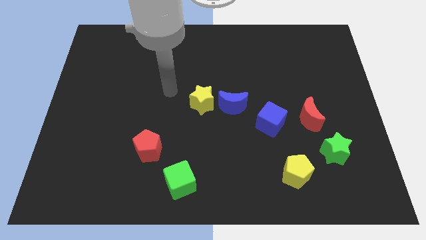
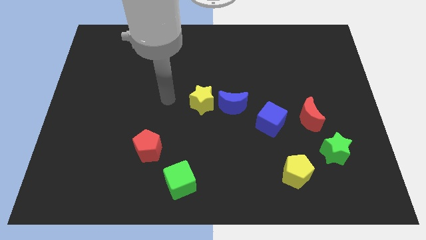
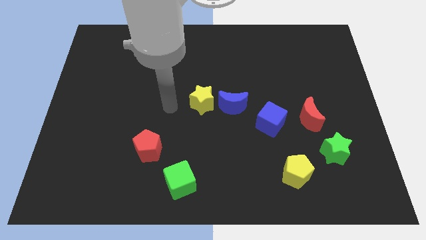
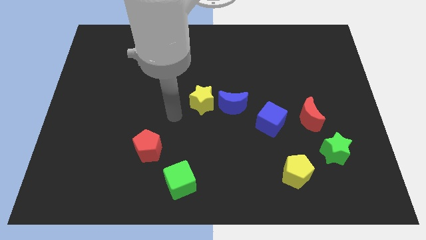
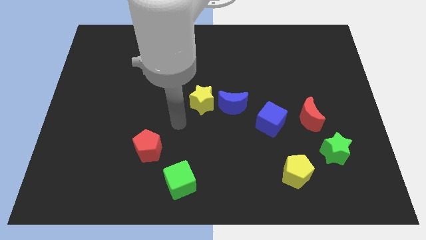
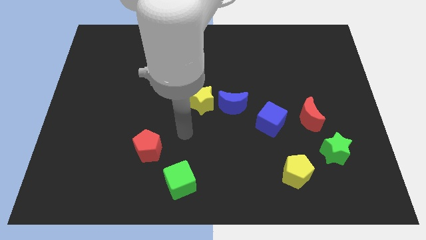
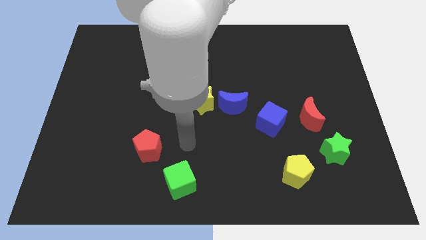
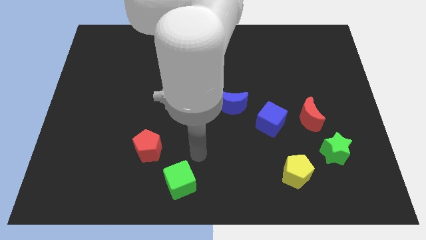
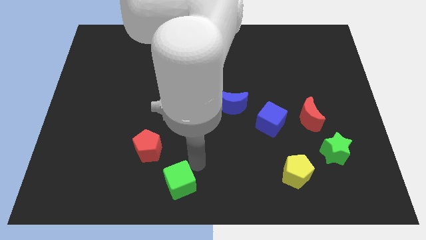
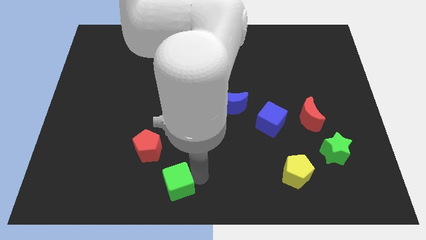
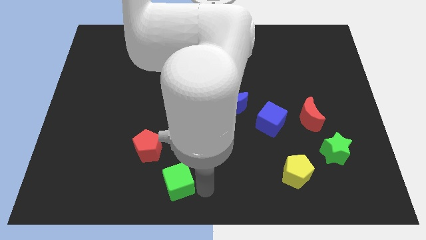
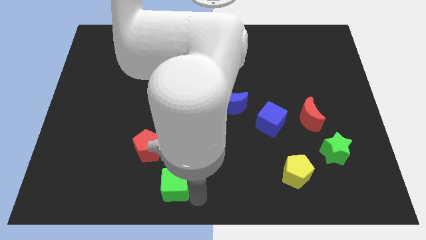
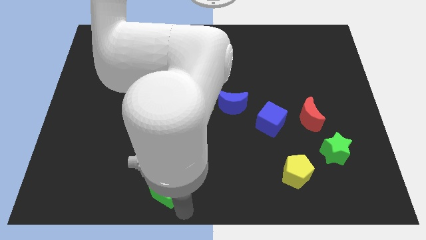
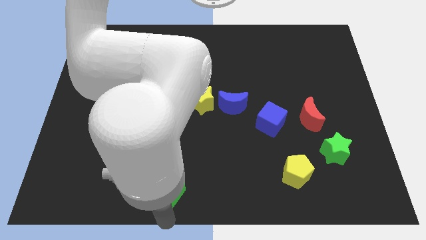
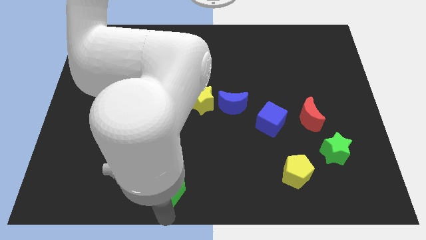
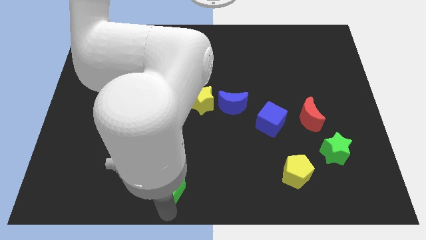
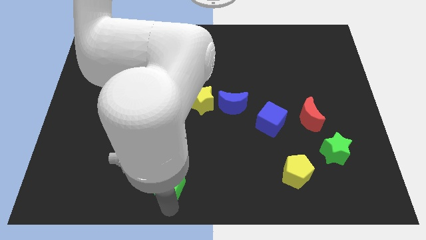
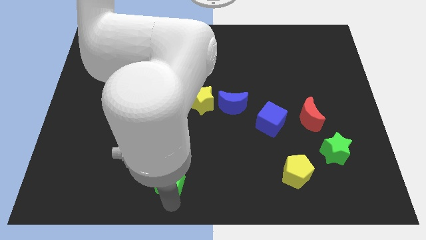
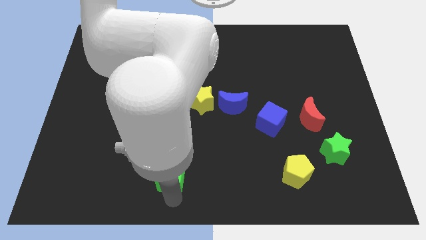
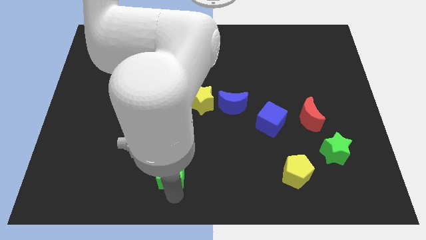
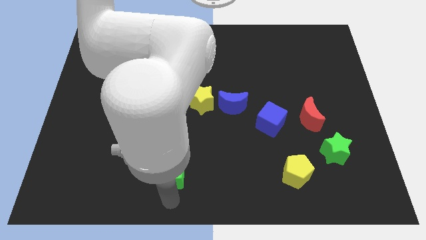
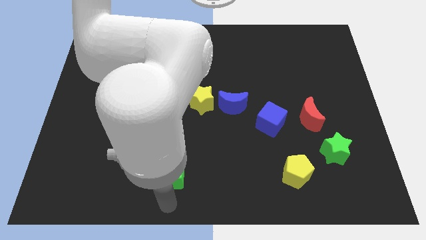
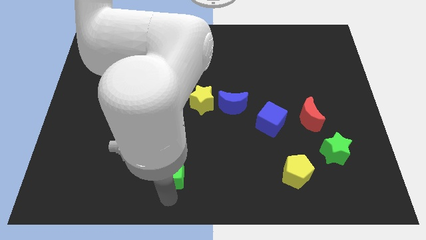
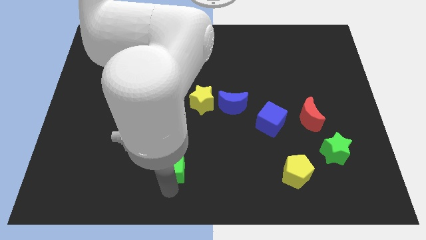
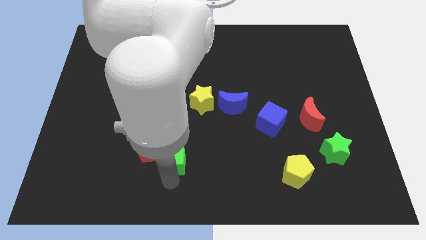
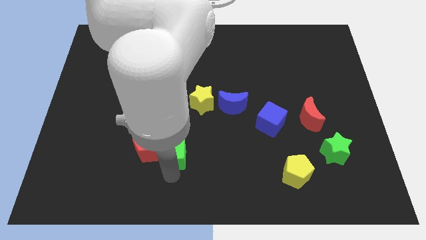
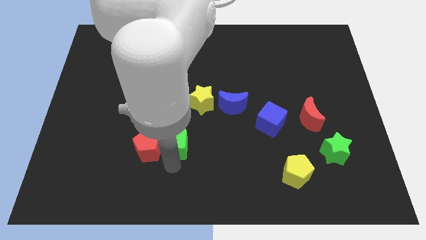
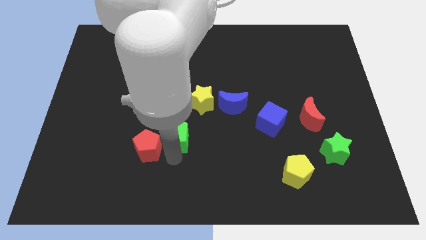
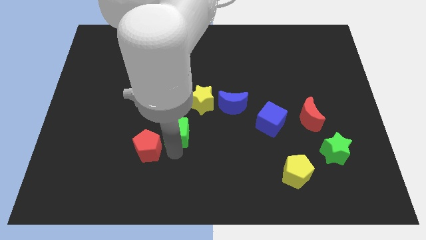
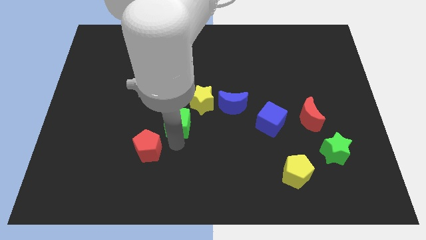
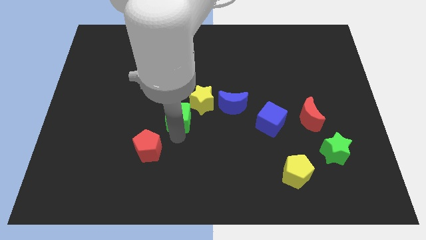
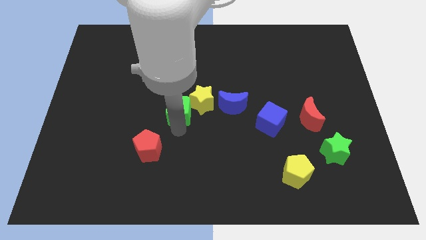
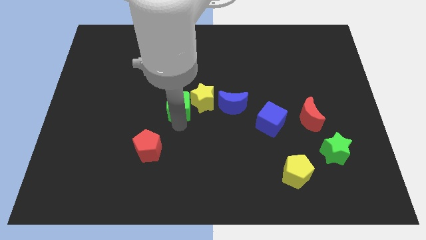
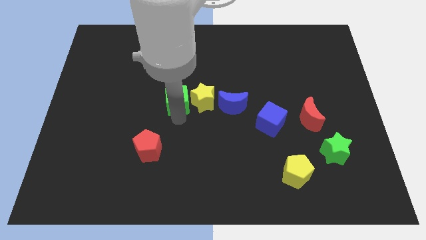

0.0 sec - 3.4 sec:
slide the green cube upwards

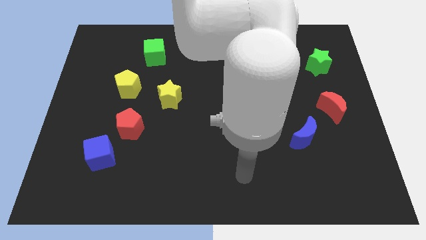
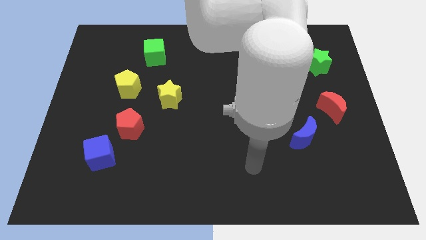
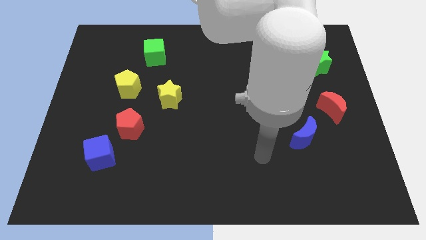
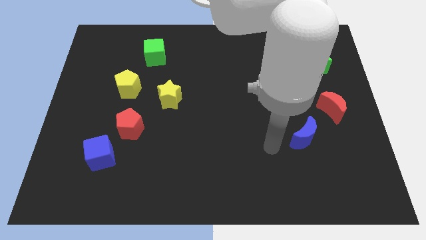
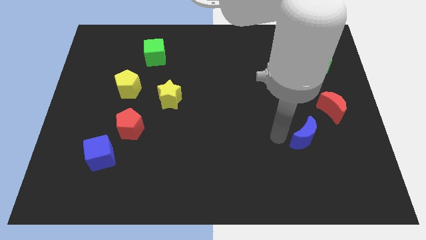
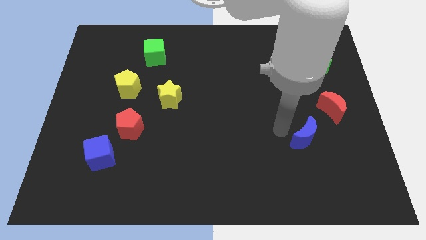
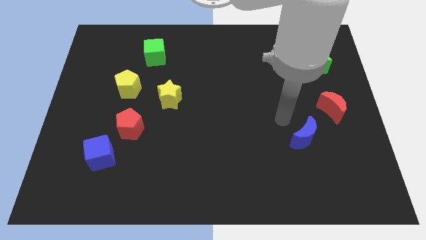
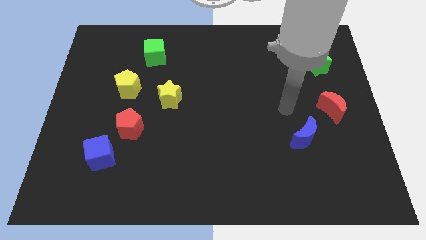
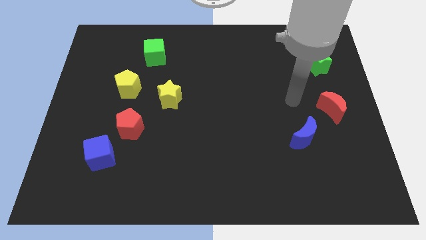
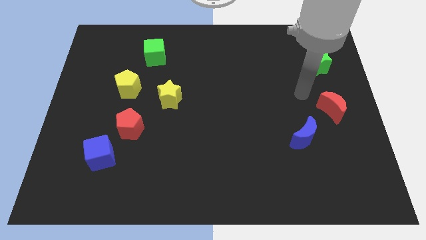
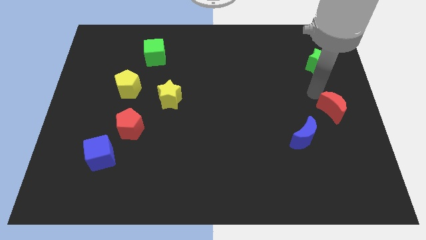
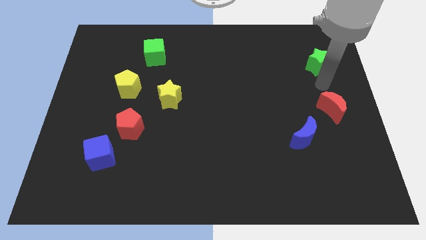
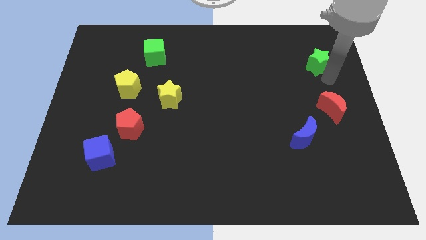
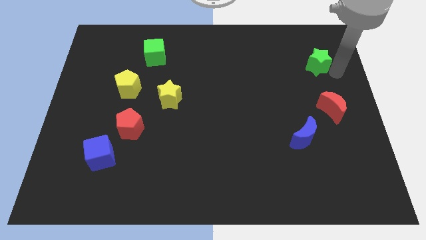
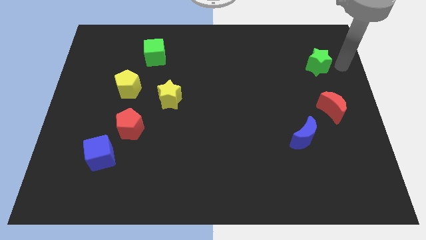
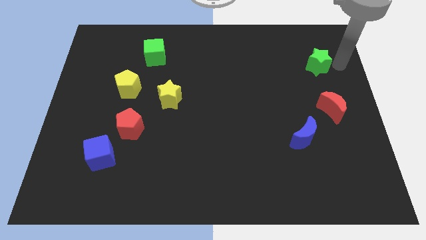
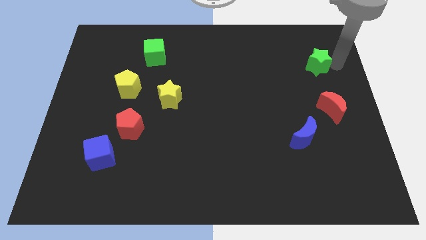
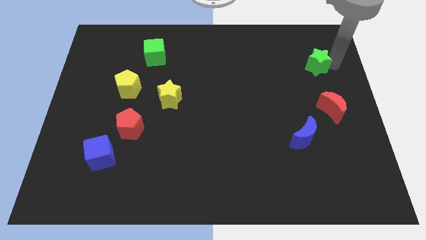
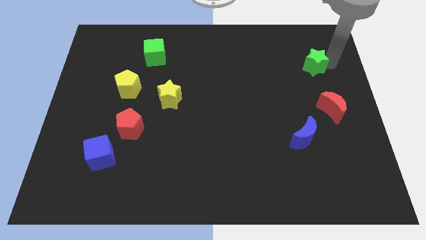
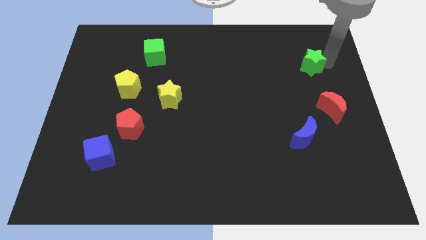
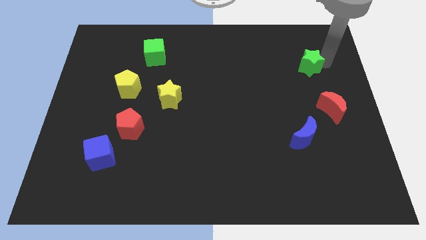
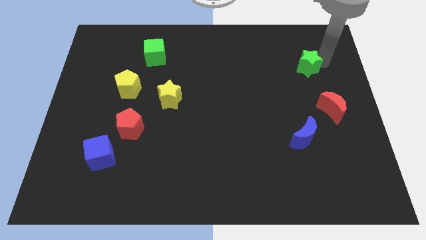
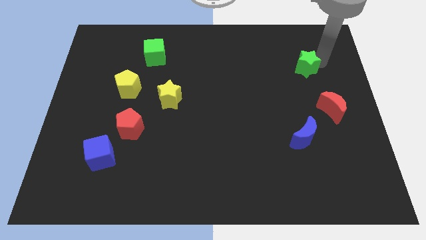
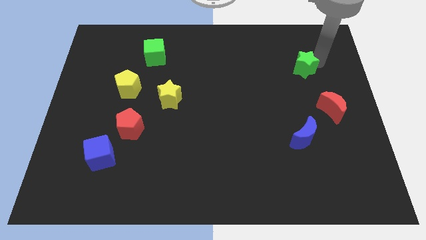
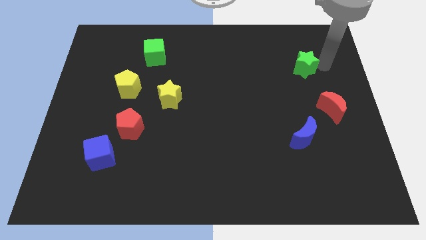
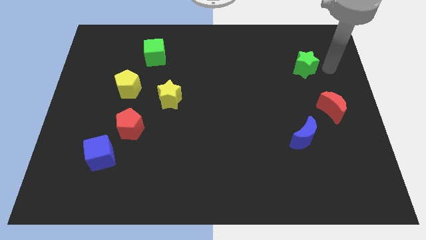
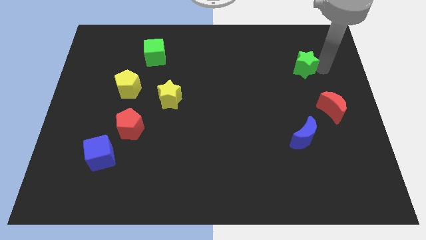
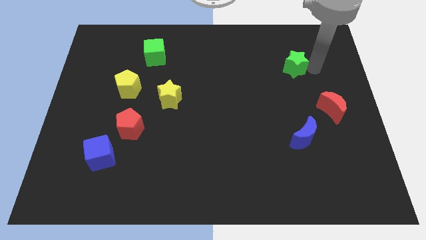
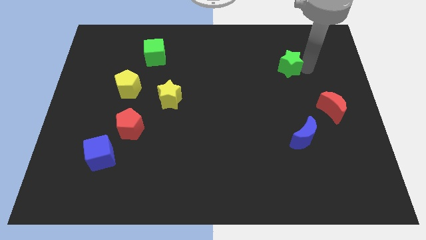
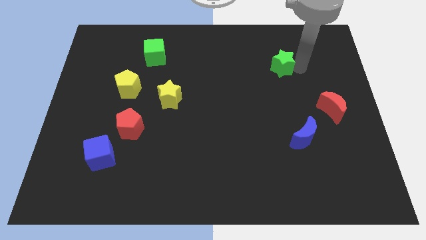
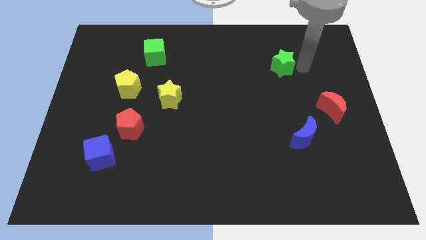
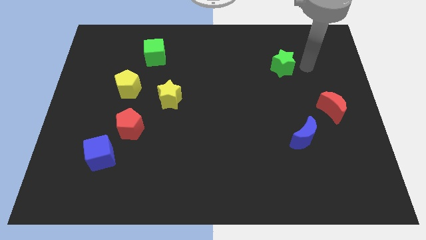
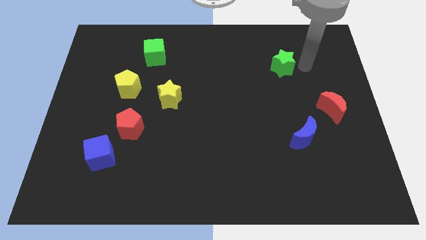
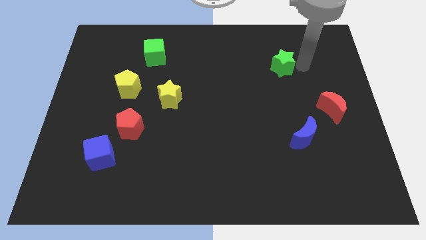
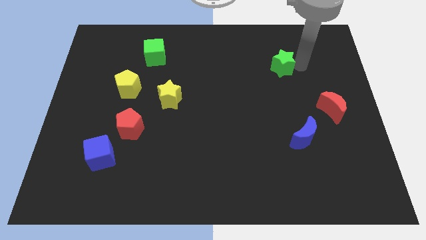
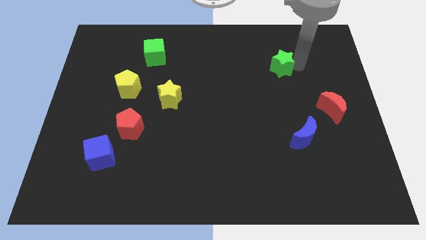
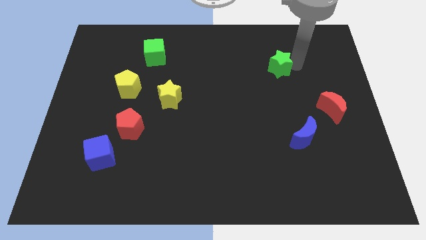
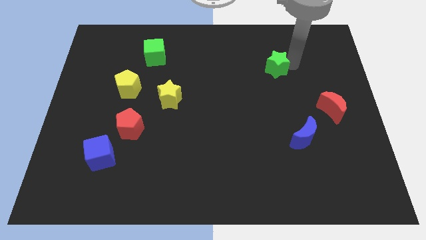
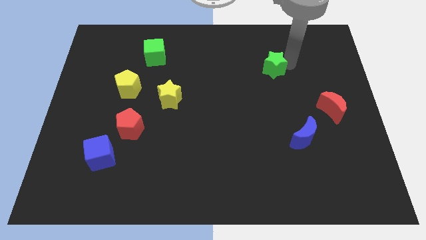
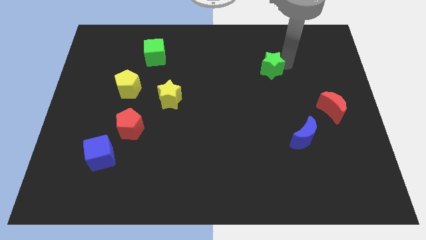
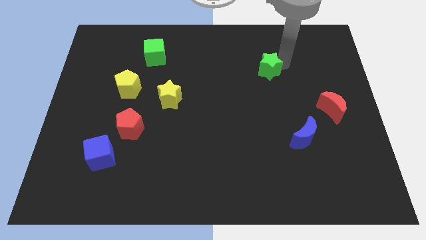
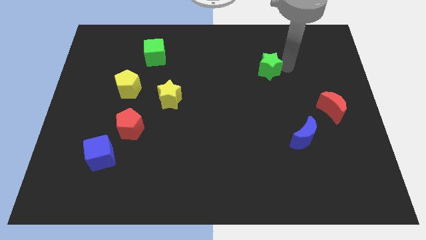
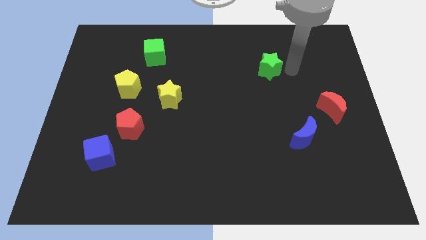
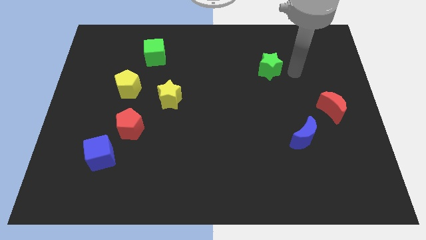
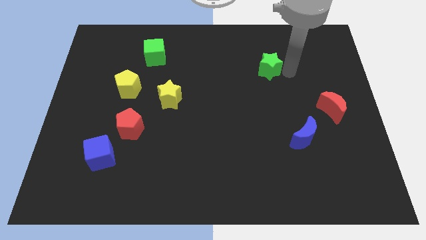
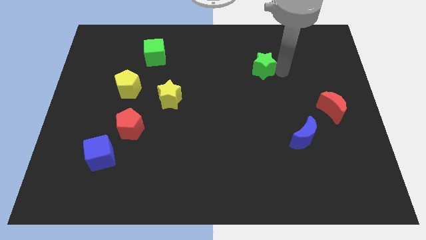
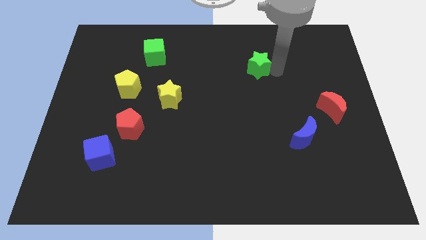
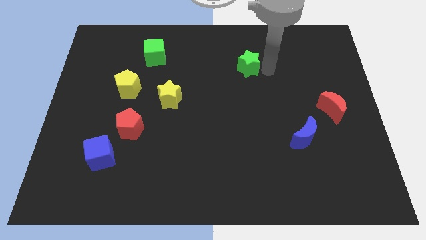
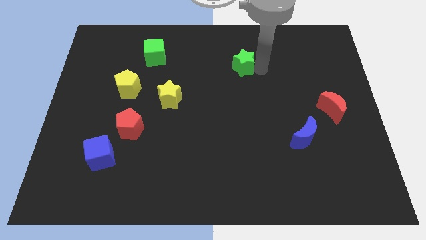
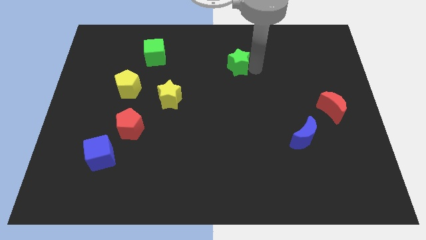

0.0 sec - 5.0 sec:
push the green star left
